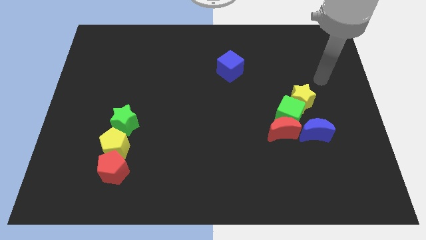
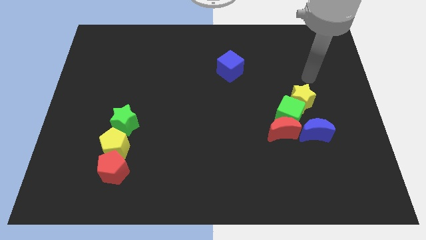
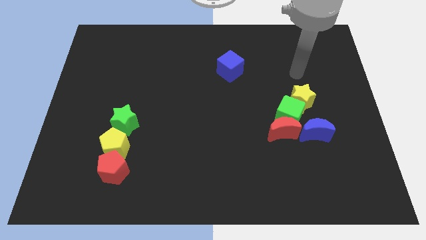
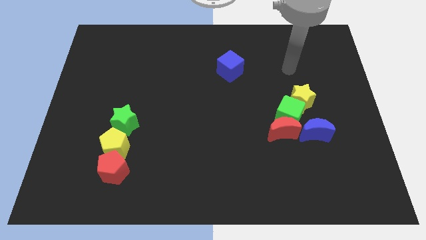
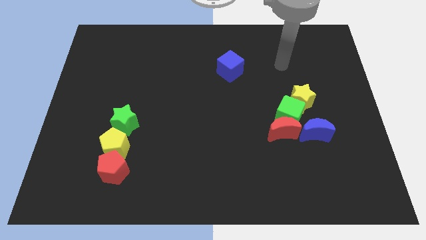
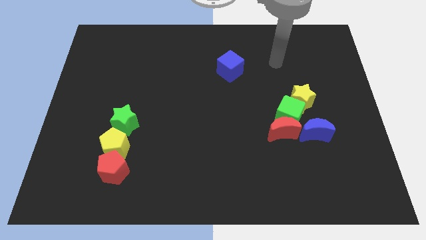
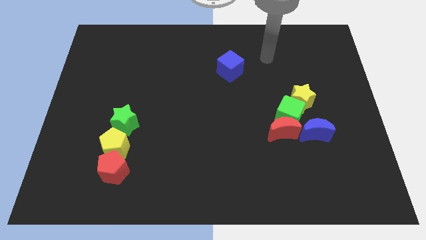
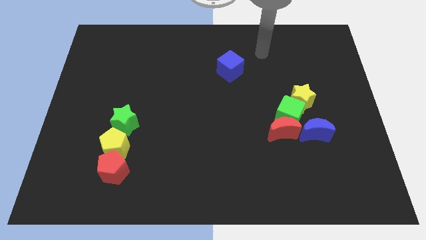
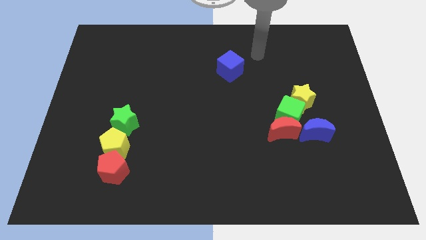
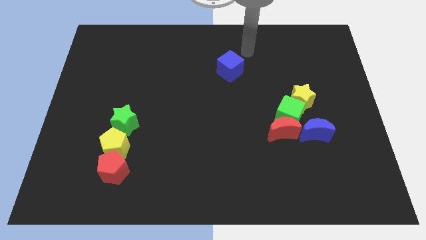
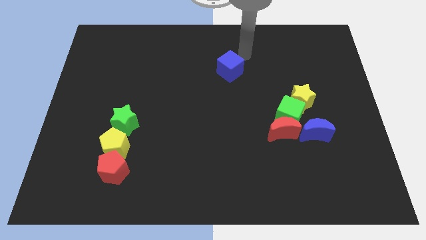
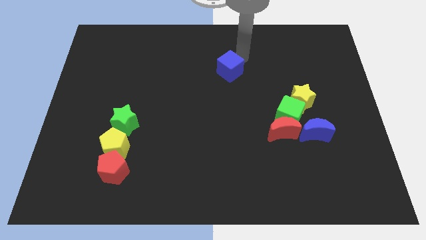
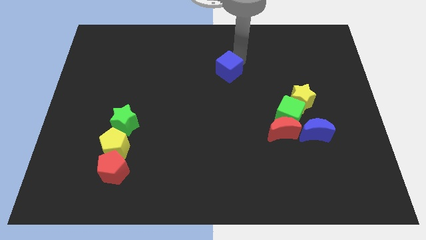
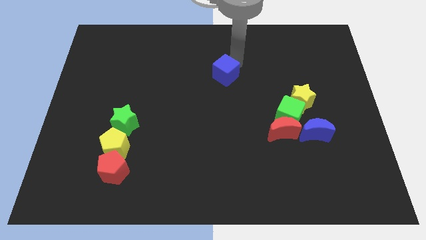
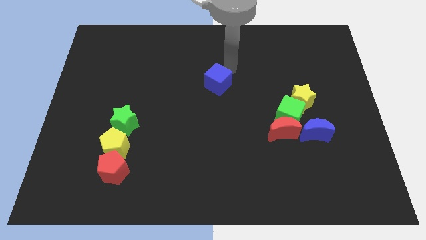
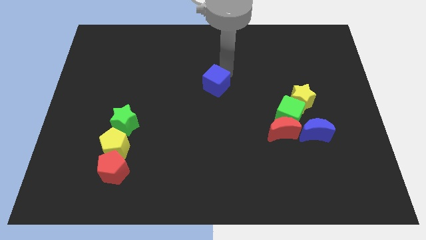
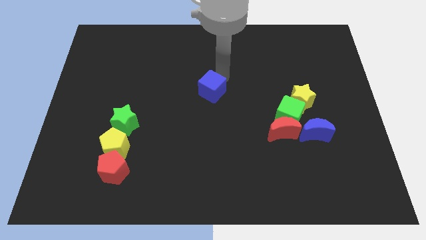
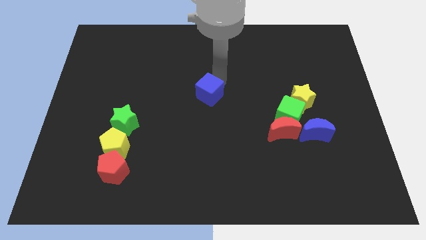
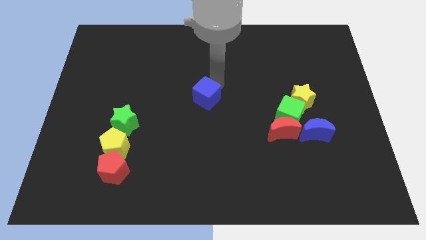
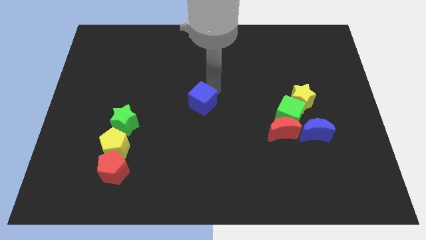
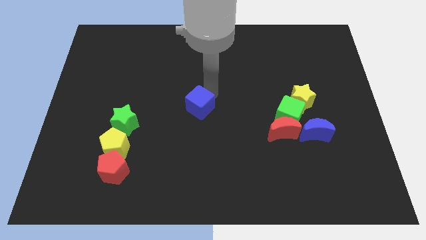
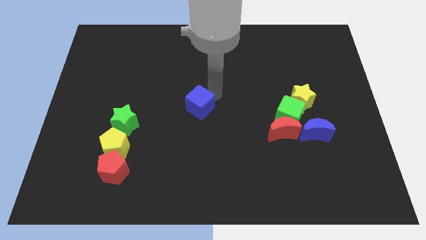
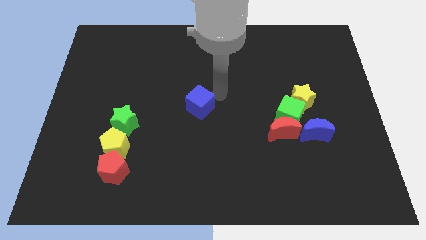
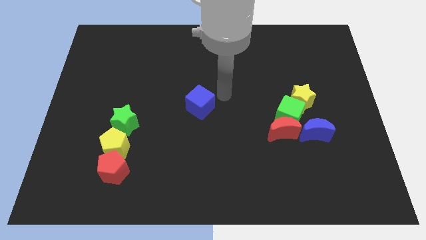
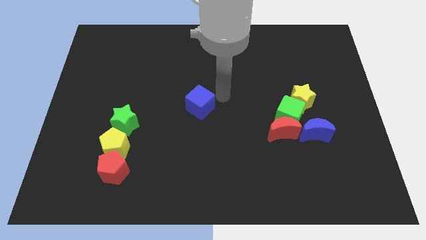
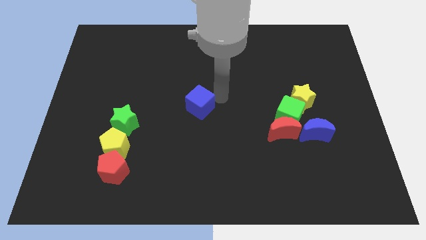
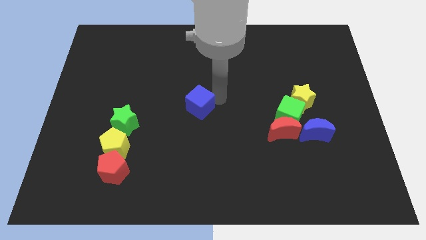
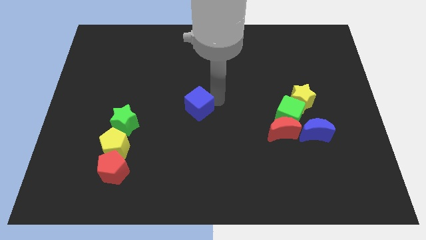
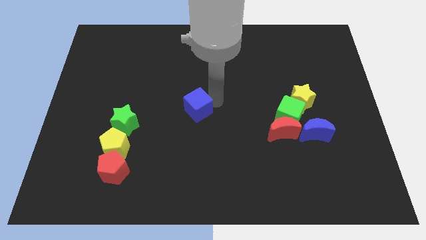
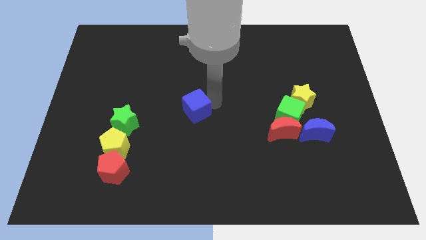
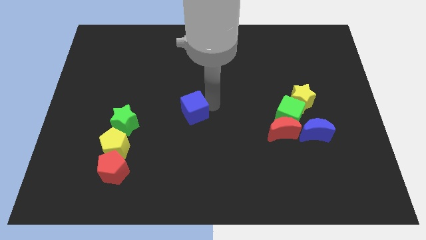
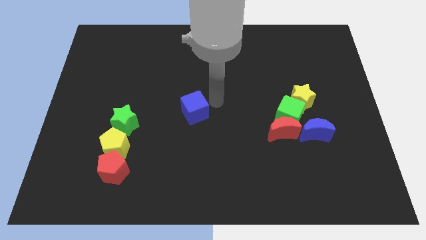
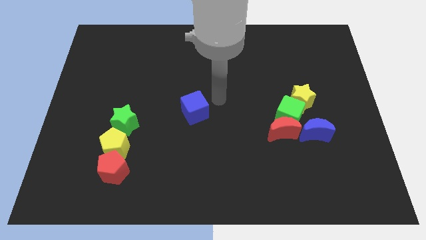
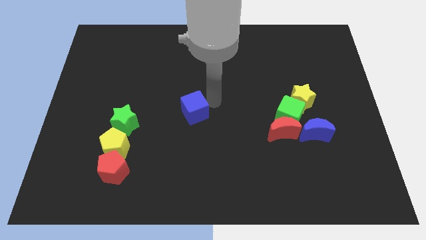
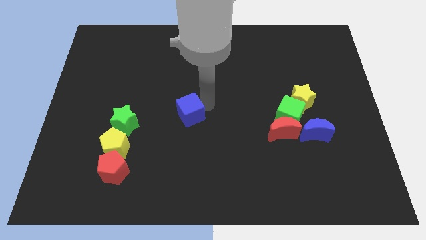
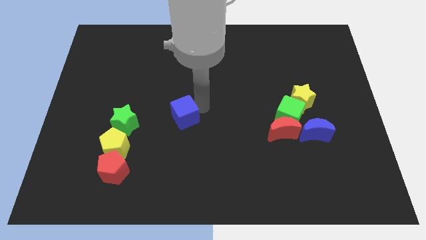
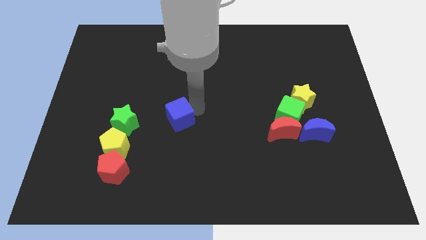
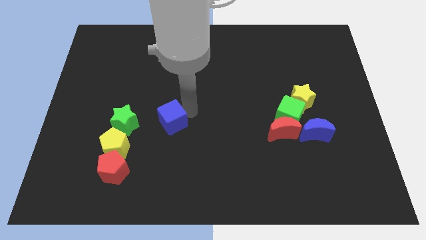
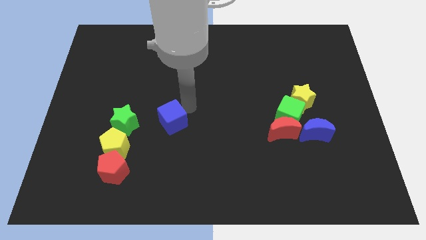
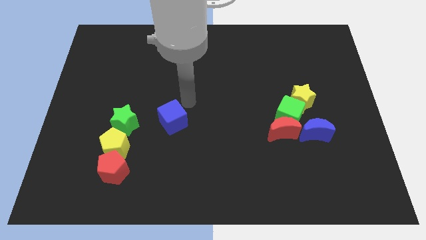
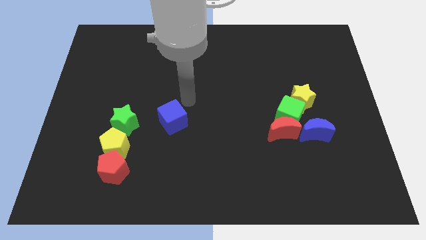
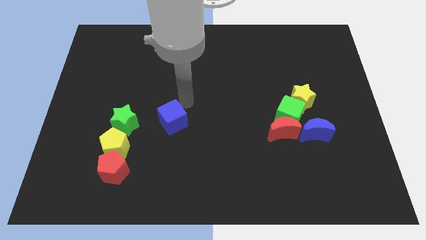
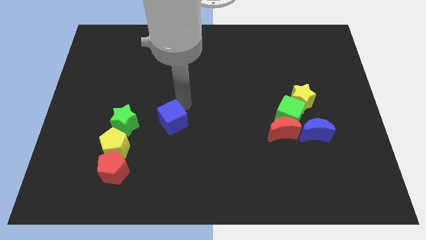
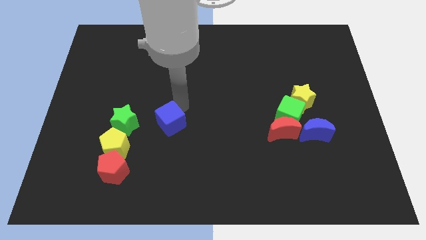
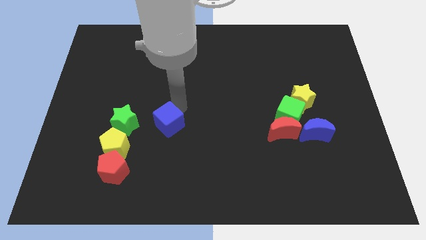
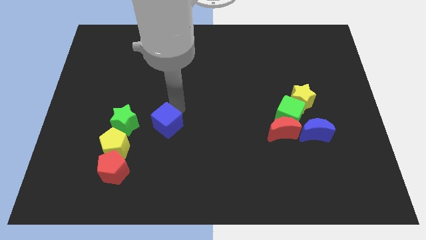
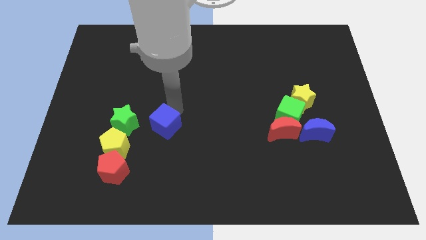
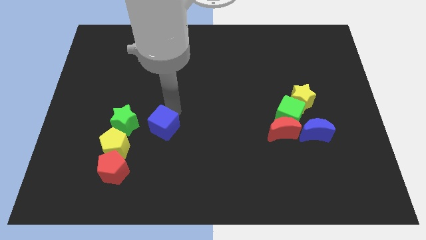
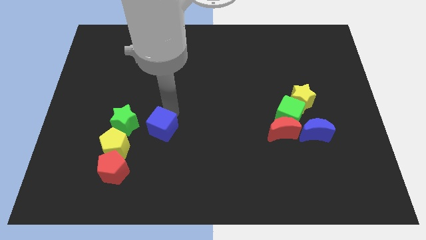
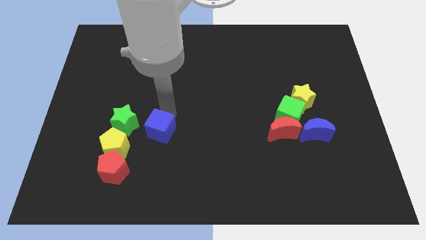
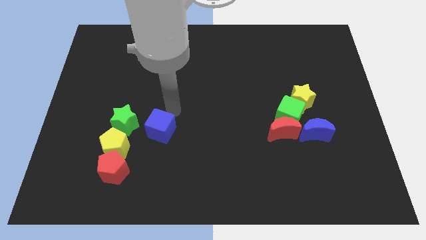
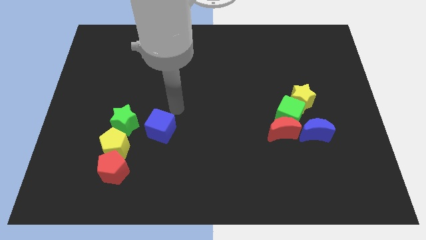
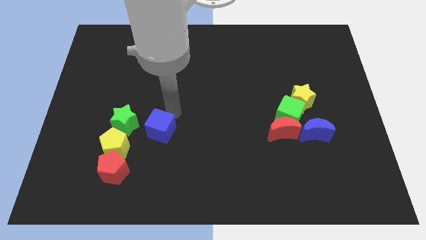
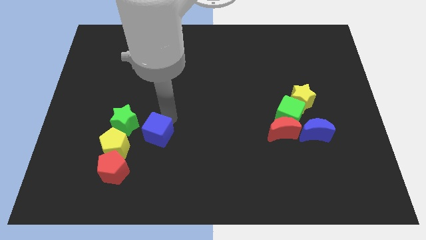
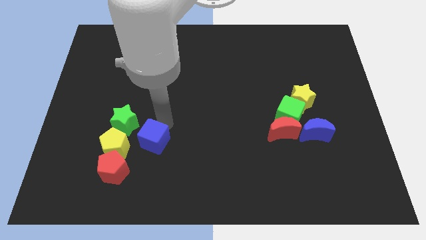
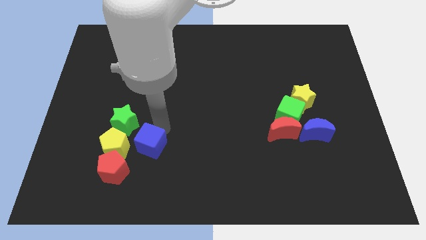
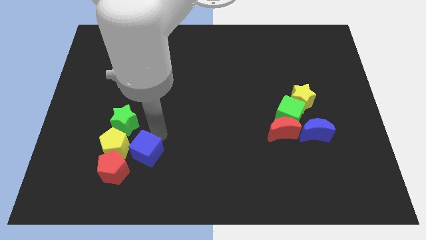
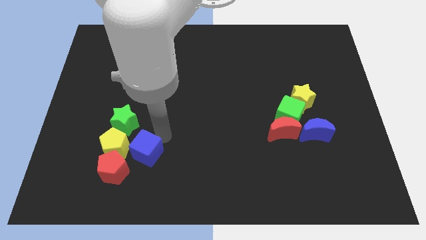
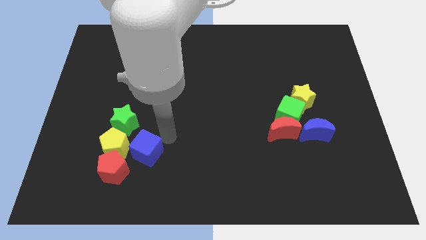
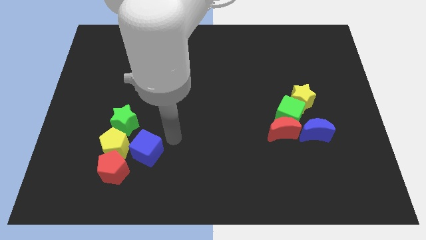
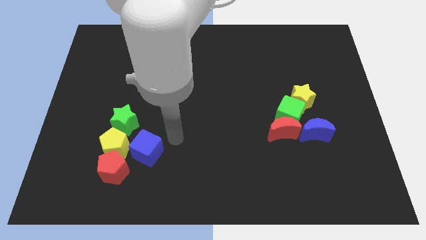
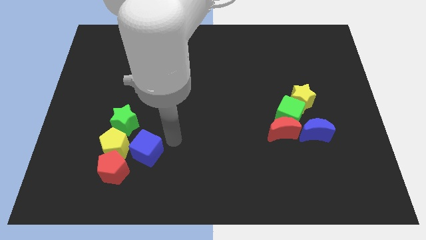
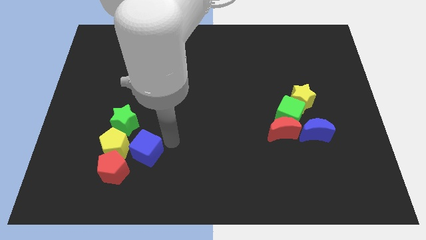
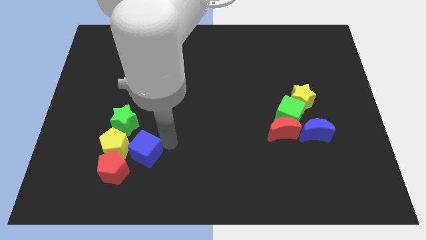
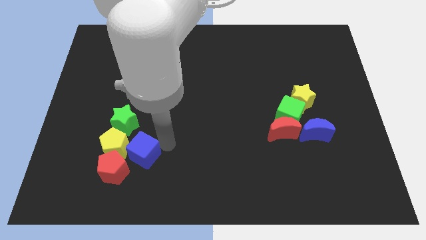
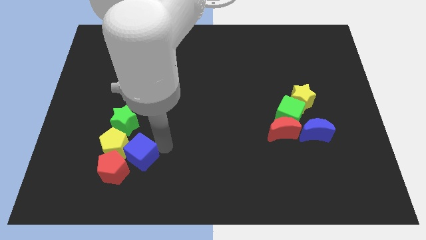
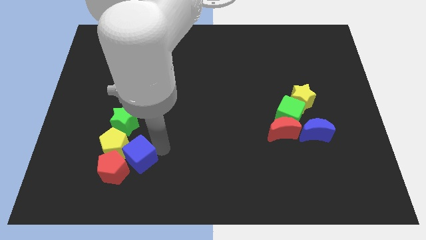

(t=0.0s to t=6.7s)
push the blue cube to the red pentagon

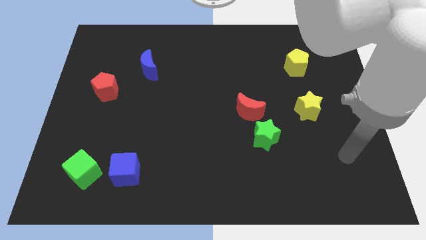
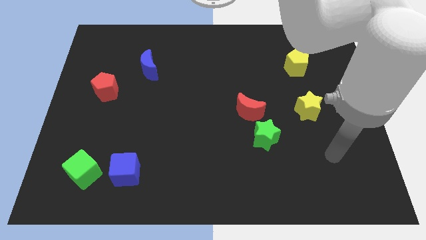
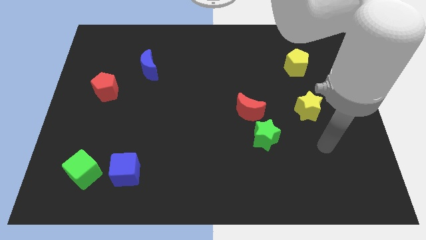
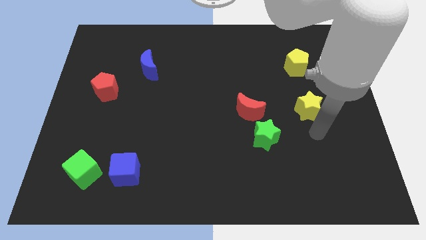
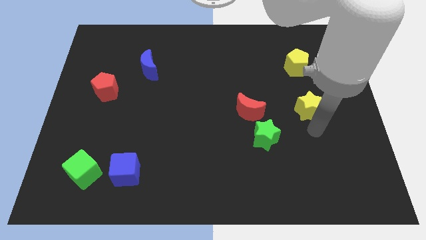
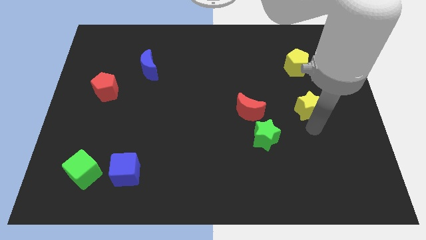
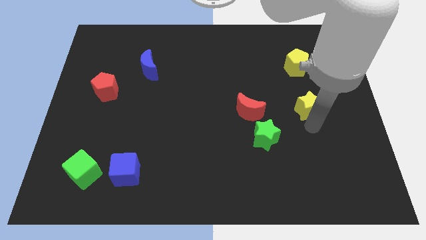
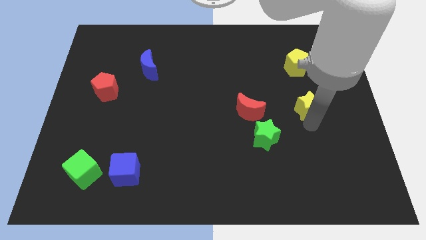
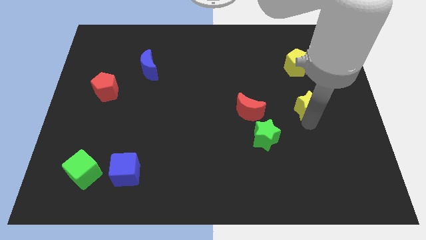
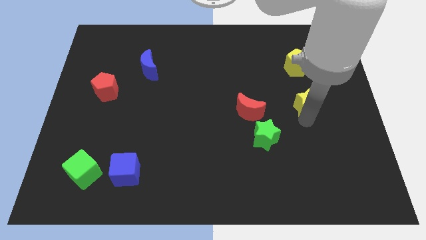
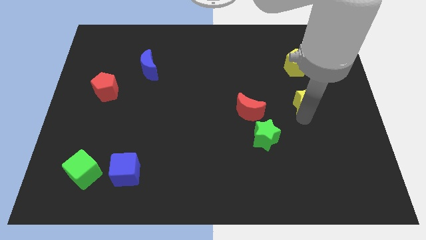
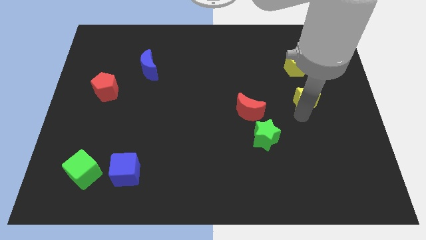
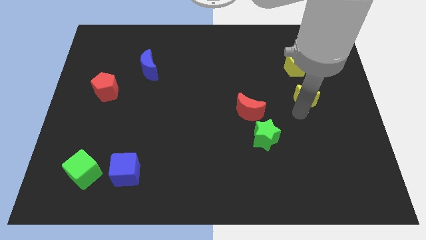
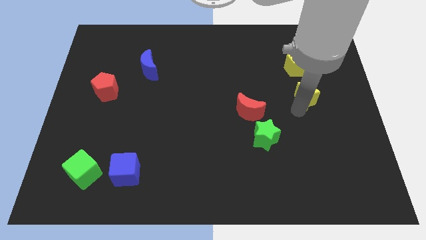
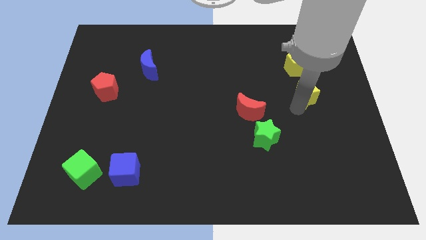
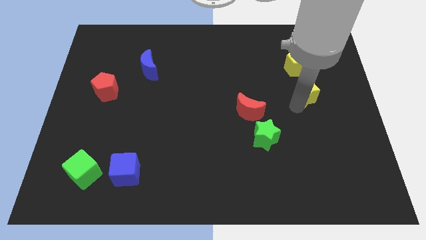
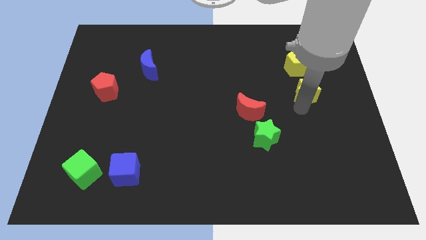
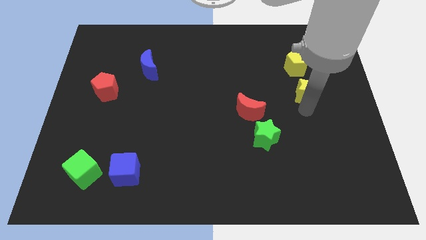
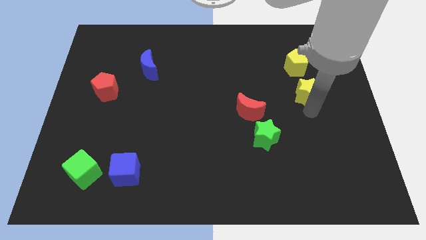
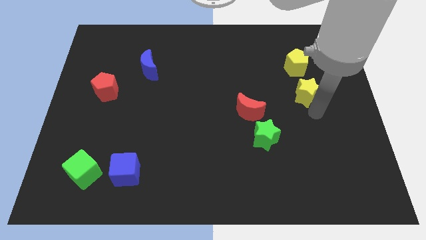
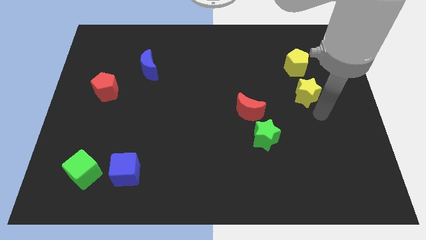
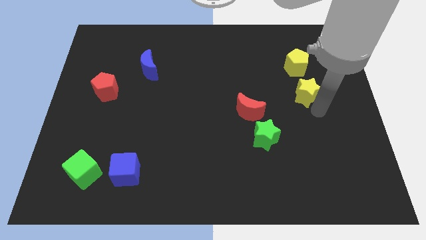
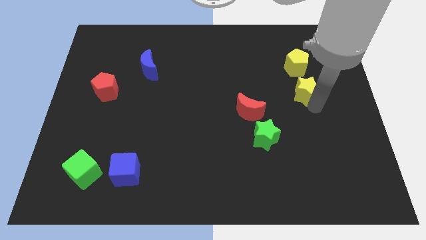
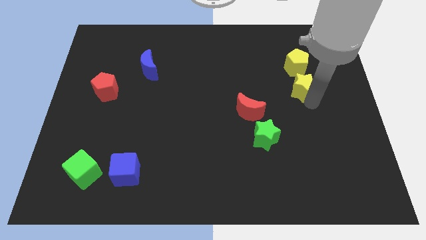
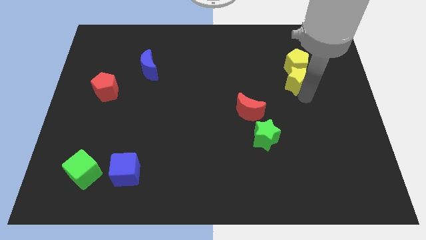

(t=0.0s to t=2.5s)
put the yellow star next to the yellow pentagon
